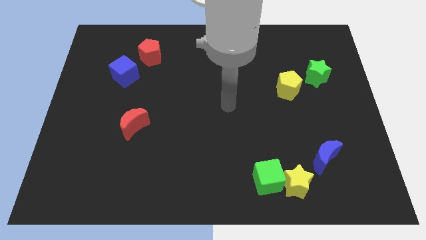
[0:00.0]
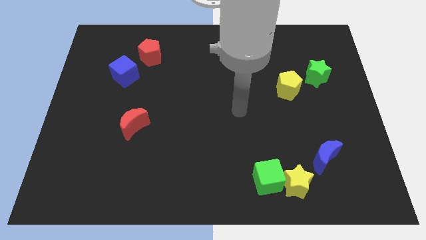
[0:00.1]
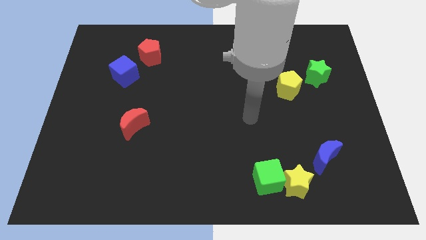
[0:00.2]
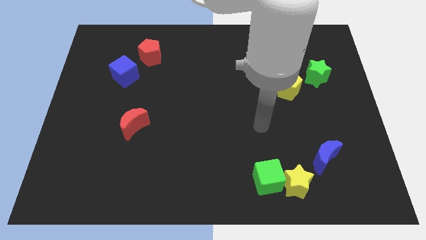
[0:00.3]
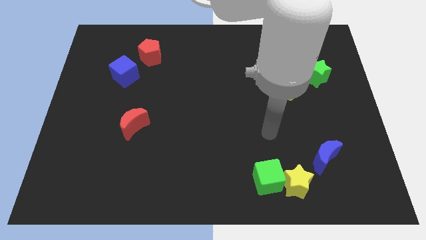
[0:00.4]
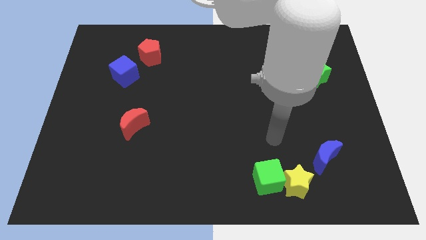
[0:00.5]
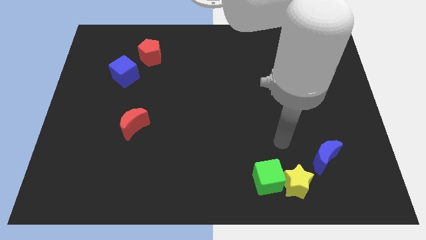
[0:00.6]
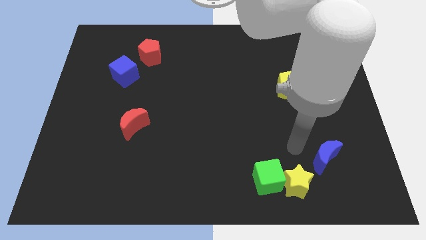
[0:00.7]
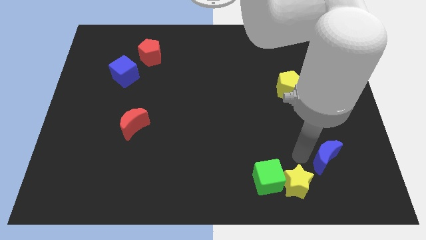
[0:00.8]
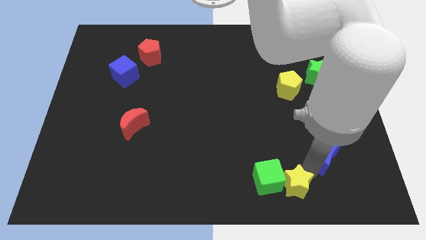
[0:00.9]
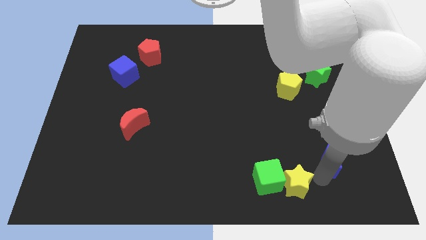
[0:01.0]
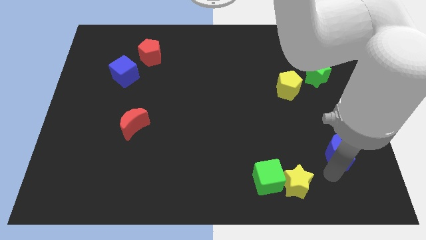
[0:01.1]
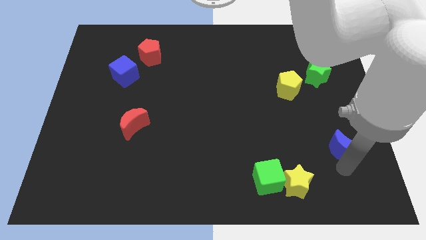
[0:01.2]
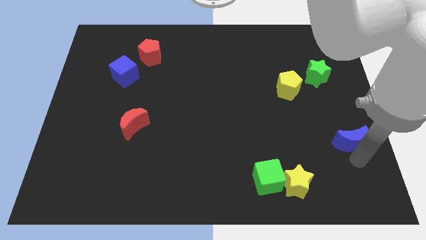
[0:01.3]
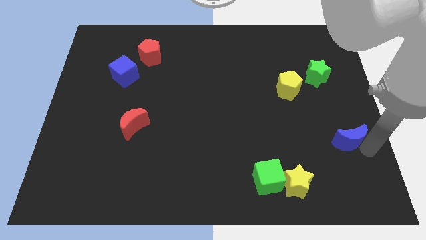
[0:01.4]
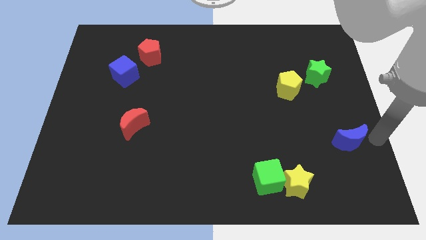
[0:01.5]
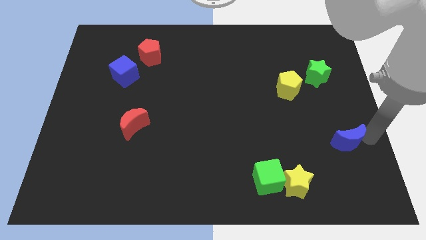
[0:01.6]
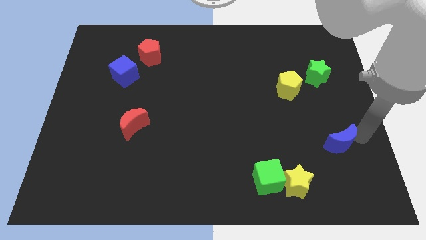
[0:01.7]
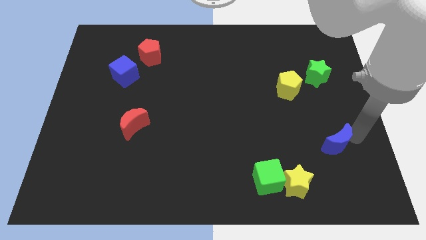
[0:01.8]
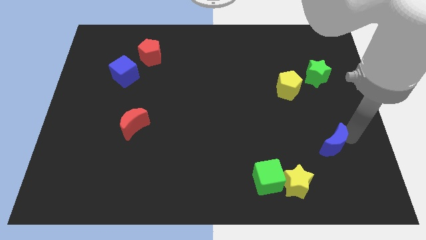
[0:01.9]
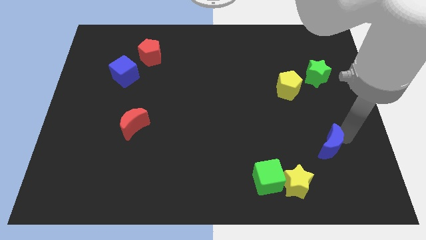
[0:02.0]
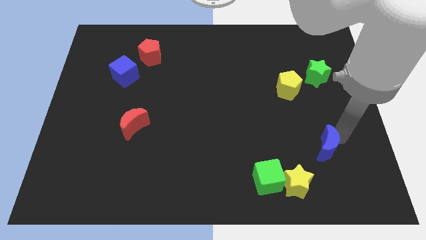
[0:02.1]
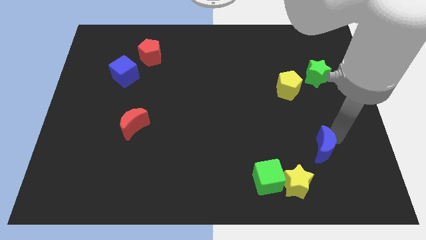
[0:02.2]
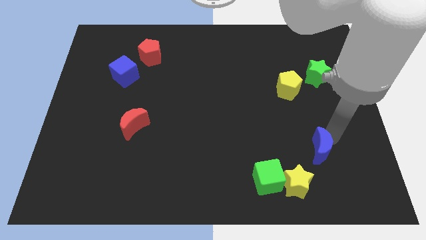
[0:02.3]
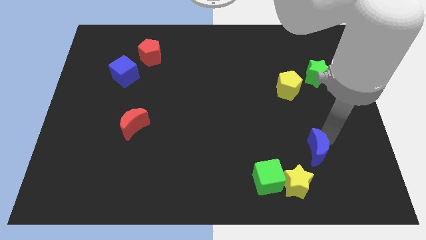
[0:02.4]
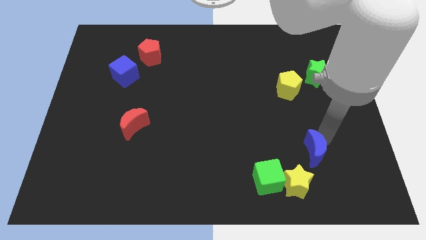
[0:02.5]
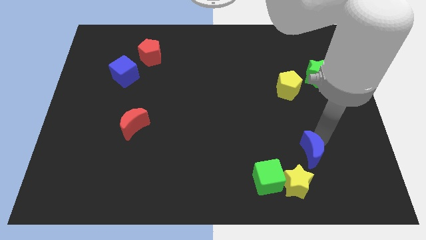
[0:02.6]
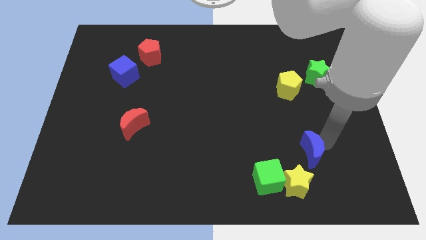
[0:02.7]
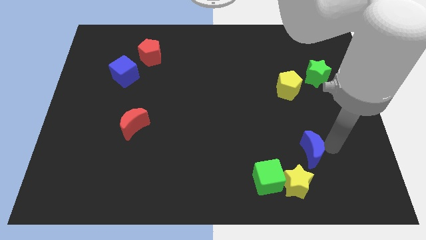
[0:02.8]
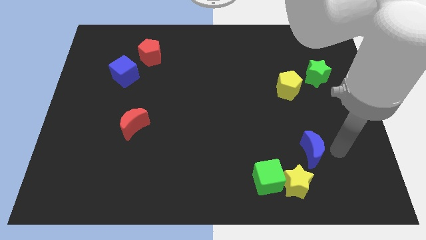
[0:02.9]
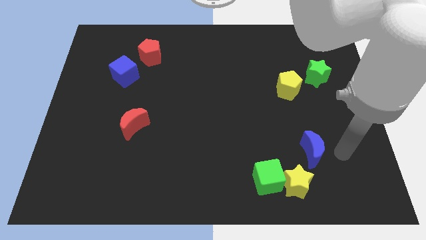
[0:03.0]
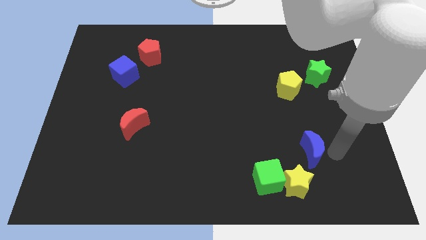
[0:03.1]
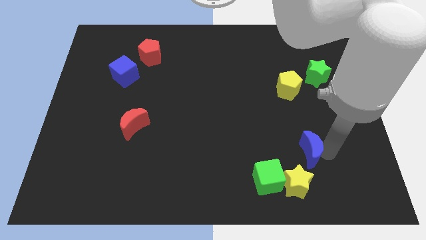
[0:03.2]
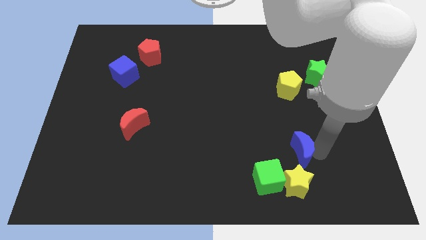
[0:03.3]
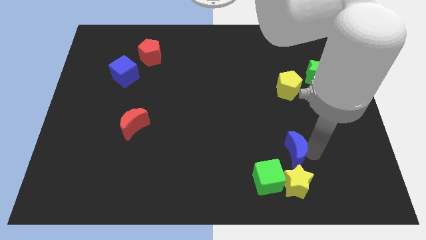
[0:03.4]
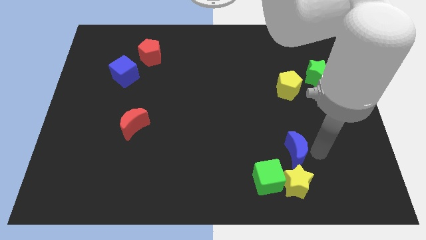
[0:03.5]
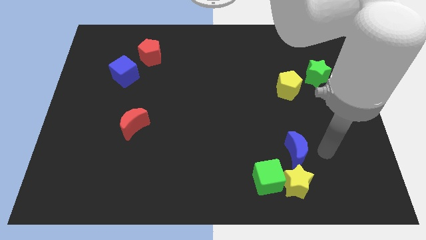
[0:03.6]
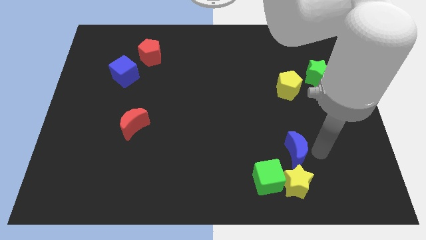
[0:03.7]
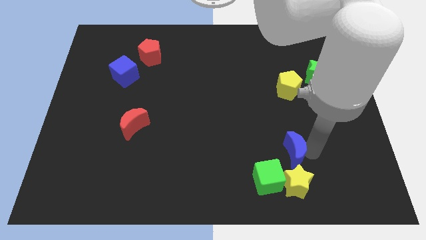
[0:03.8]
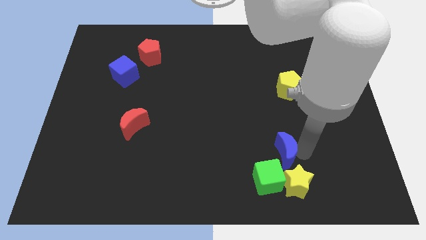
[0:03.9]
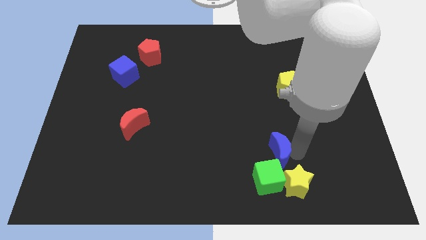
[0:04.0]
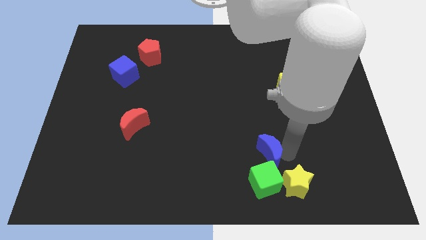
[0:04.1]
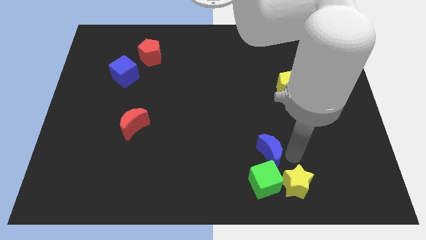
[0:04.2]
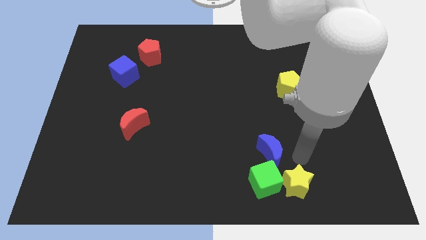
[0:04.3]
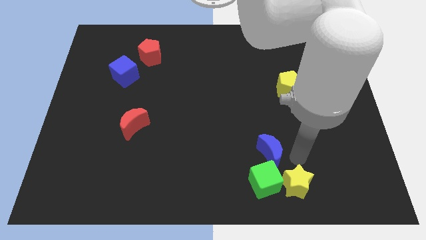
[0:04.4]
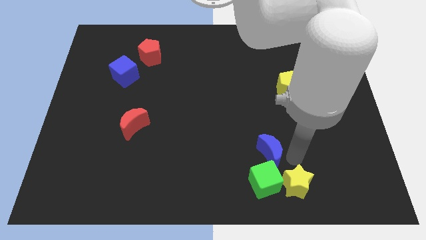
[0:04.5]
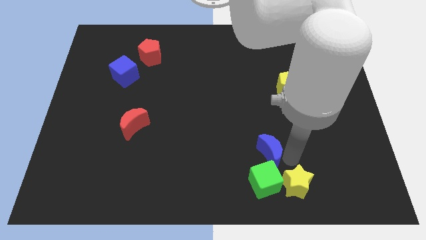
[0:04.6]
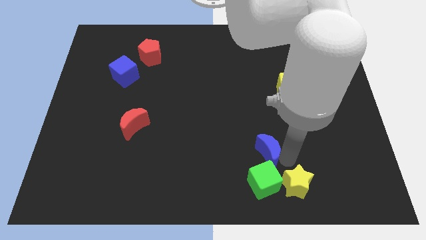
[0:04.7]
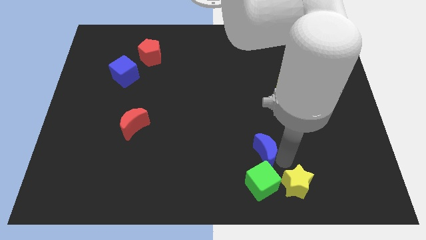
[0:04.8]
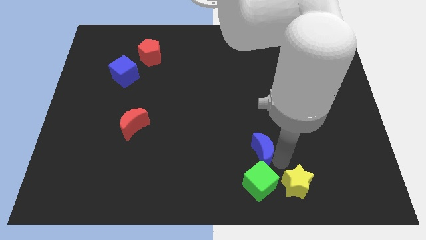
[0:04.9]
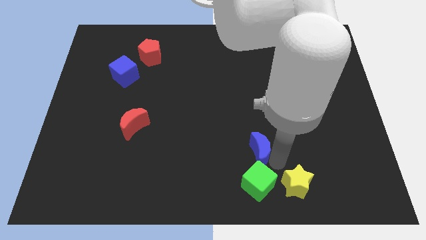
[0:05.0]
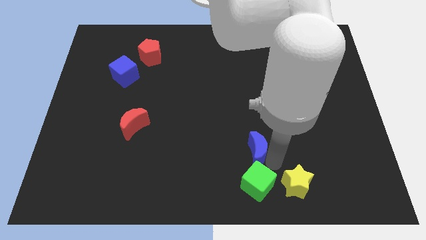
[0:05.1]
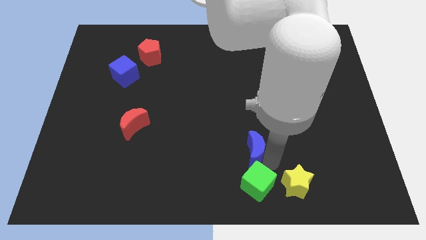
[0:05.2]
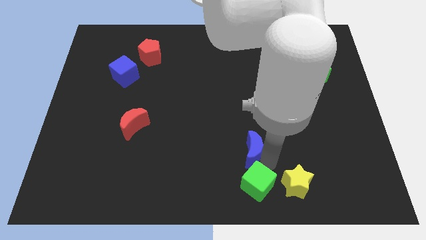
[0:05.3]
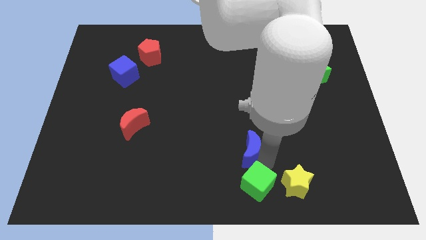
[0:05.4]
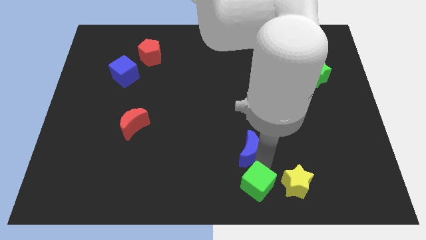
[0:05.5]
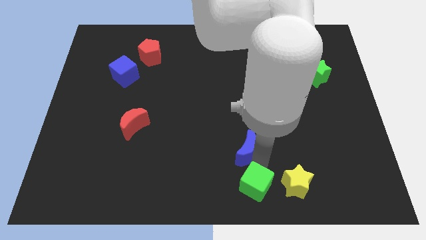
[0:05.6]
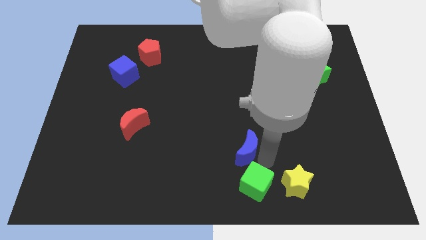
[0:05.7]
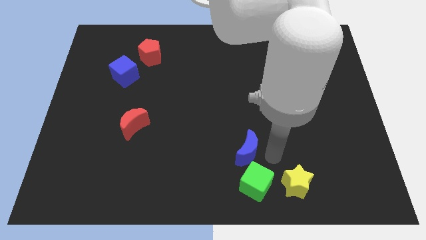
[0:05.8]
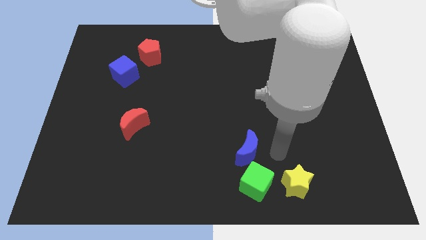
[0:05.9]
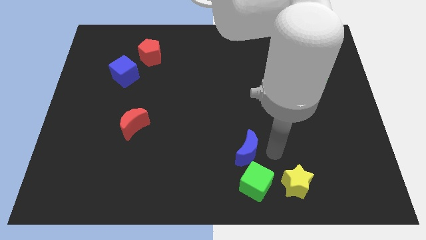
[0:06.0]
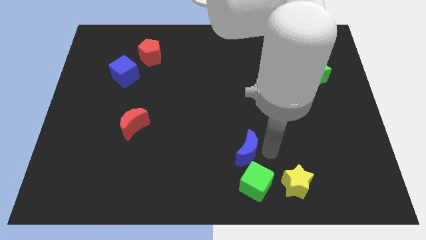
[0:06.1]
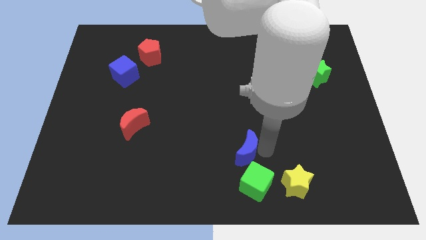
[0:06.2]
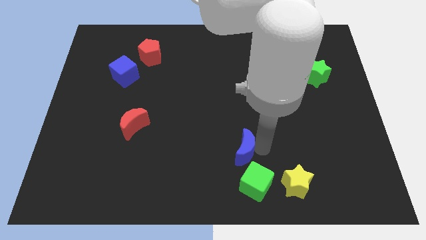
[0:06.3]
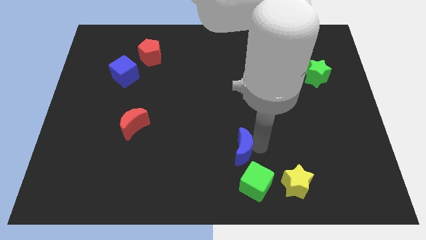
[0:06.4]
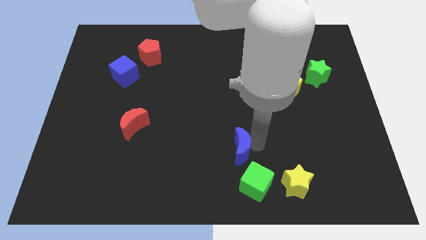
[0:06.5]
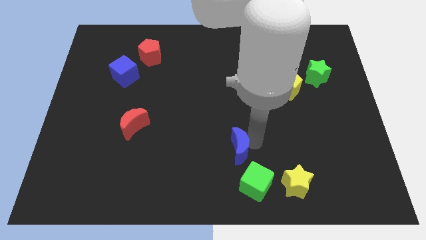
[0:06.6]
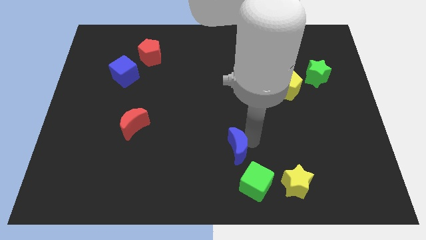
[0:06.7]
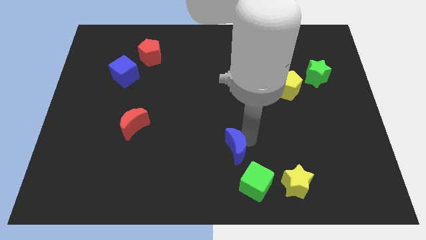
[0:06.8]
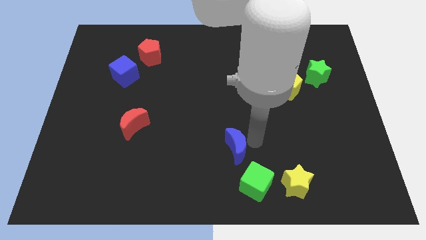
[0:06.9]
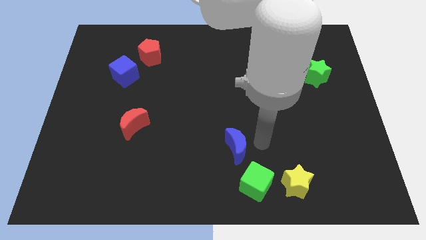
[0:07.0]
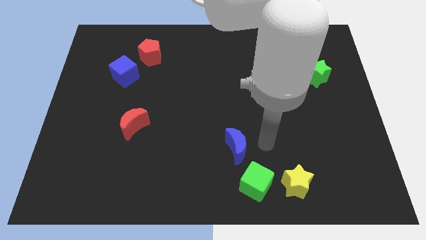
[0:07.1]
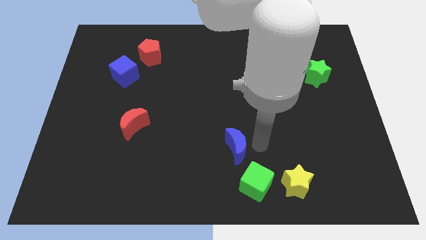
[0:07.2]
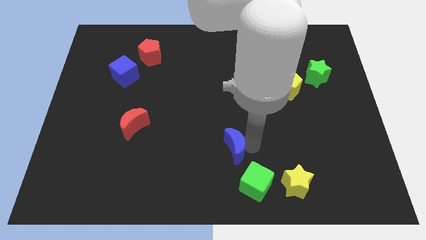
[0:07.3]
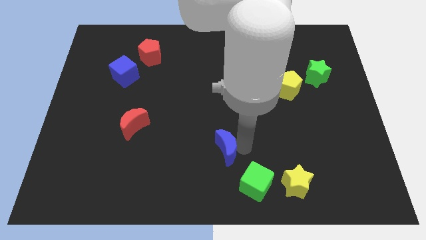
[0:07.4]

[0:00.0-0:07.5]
move the blue moon left

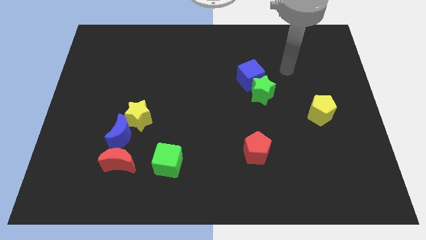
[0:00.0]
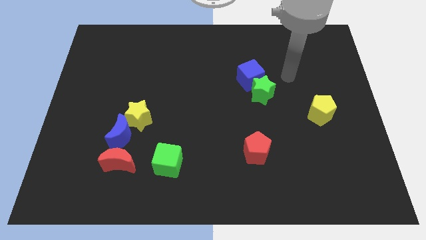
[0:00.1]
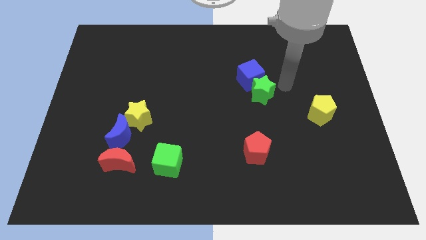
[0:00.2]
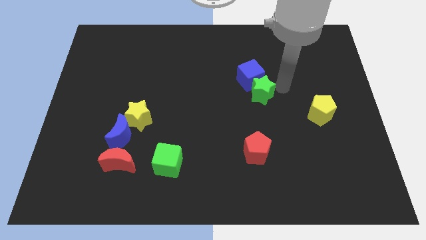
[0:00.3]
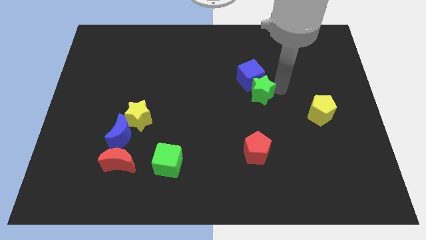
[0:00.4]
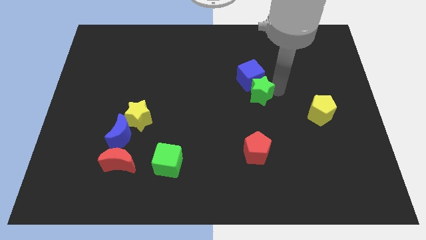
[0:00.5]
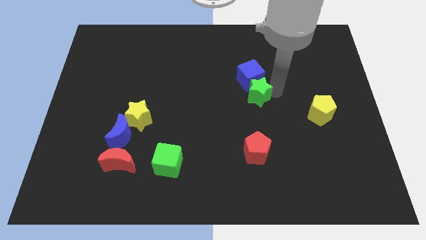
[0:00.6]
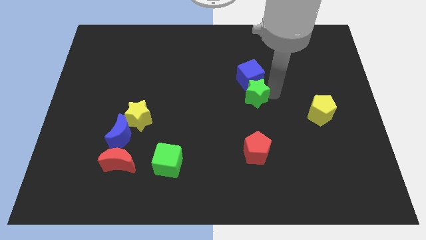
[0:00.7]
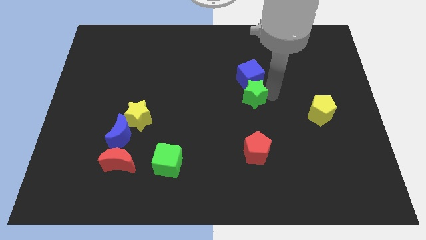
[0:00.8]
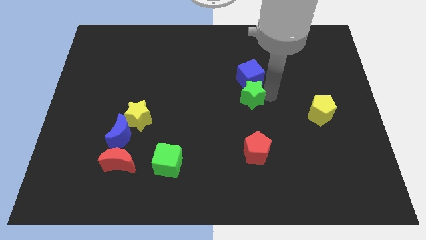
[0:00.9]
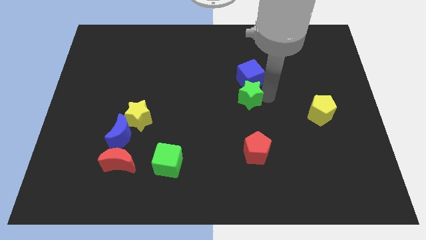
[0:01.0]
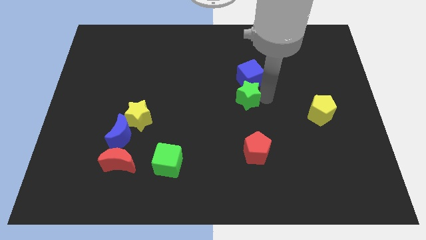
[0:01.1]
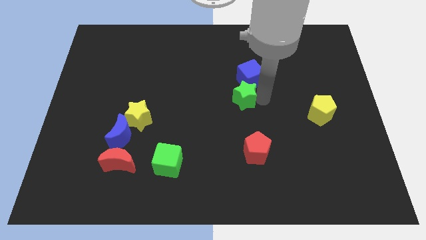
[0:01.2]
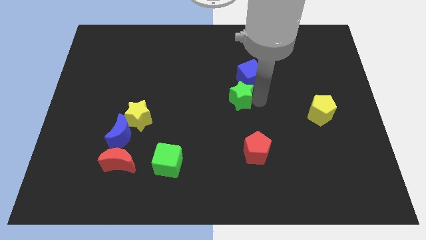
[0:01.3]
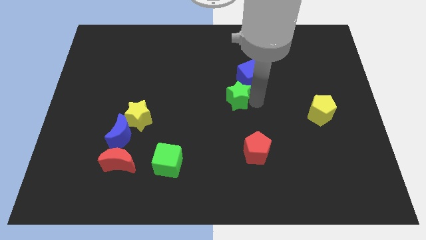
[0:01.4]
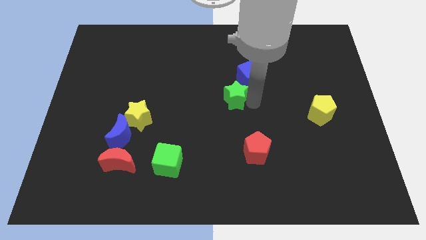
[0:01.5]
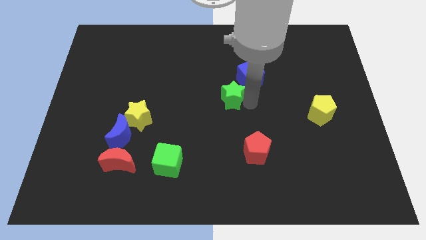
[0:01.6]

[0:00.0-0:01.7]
slightly slide the green star to the left
